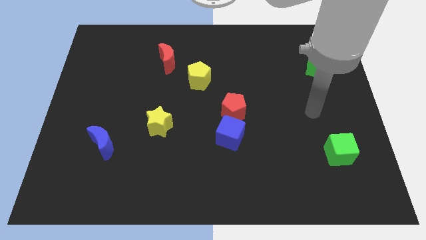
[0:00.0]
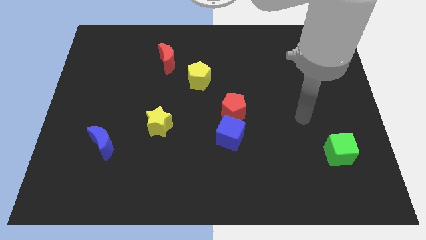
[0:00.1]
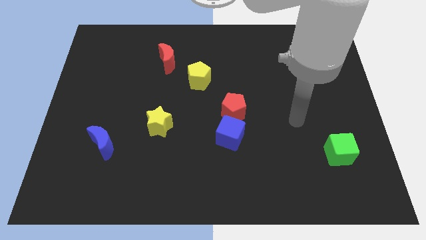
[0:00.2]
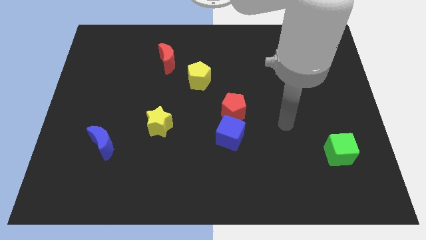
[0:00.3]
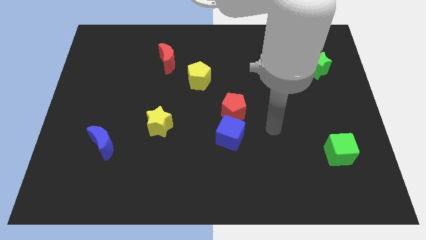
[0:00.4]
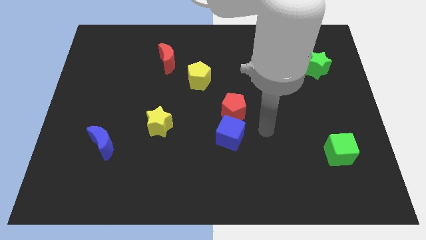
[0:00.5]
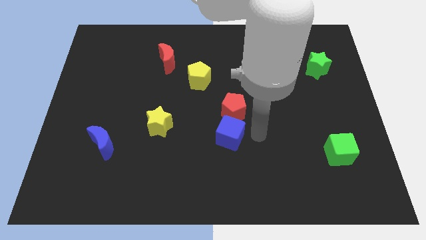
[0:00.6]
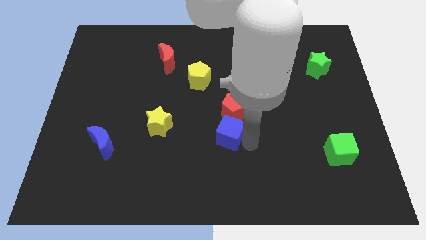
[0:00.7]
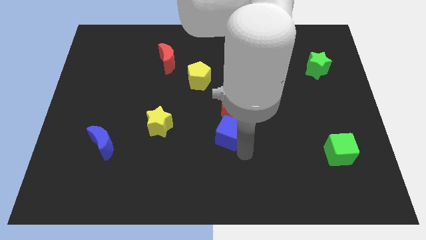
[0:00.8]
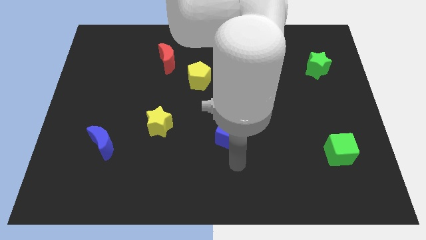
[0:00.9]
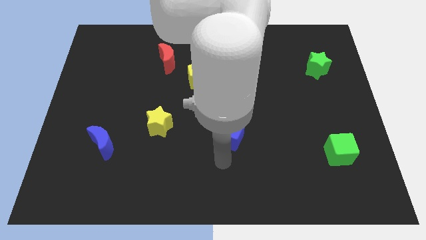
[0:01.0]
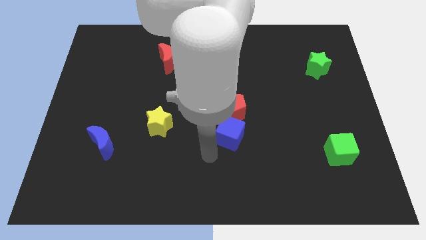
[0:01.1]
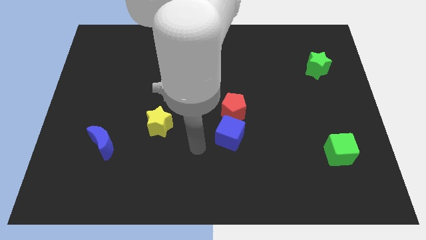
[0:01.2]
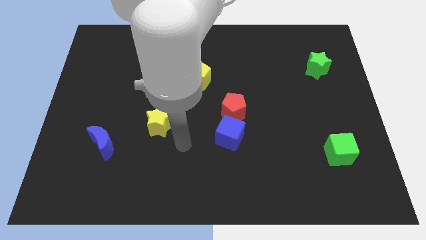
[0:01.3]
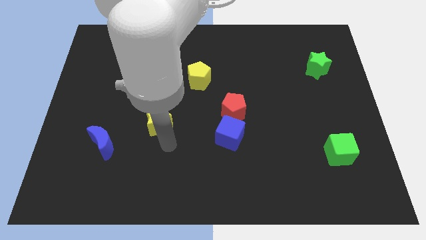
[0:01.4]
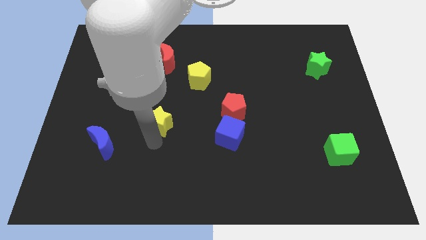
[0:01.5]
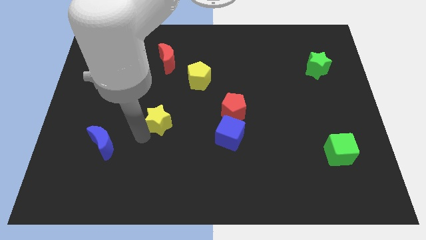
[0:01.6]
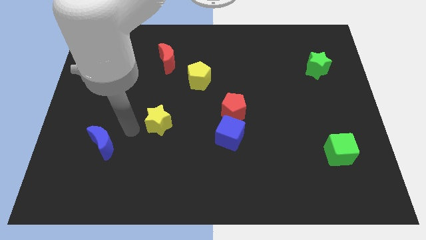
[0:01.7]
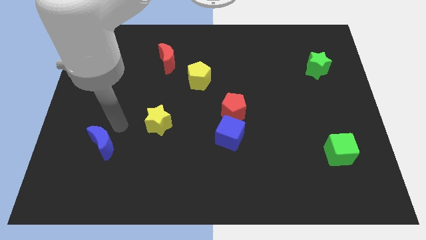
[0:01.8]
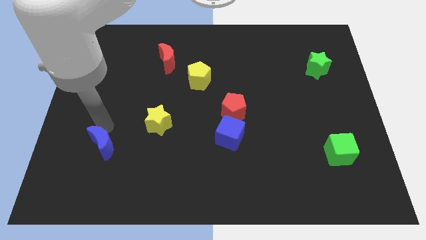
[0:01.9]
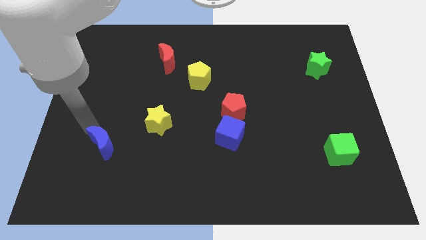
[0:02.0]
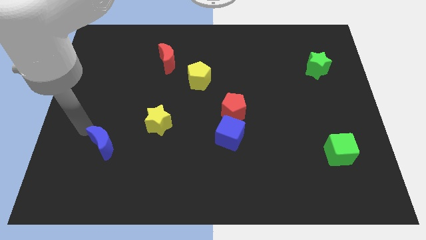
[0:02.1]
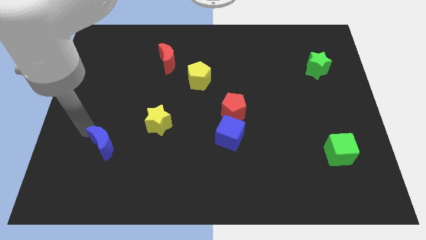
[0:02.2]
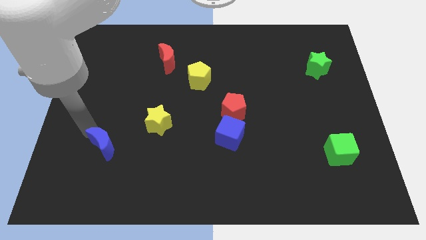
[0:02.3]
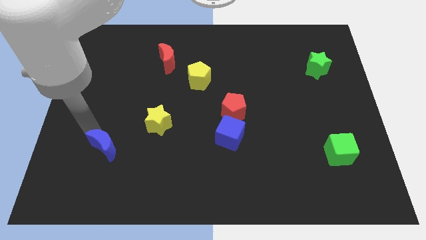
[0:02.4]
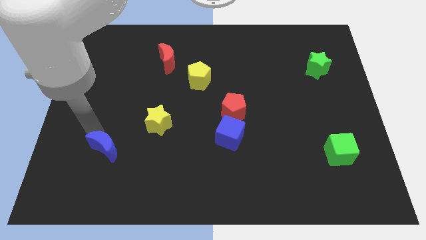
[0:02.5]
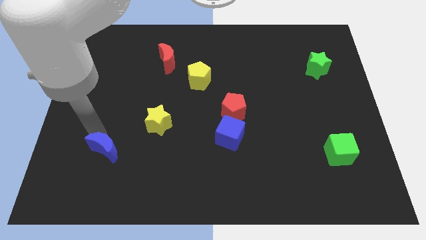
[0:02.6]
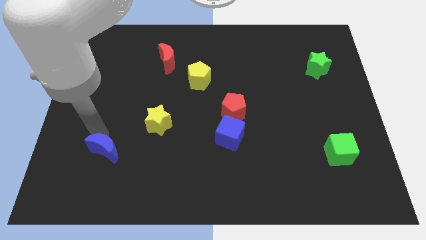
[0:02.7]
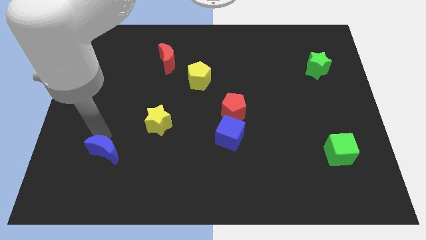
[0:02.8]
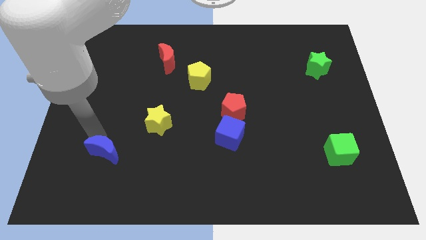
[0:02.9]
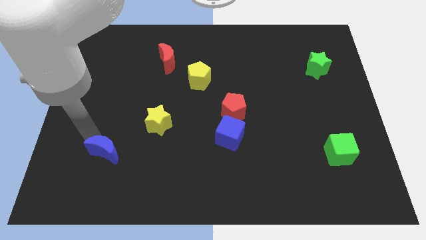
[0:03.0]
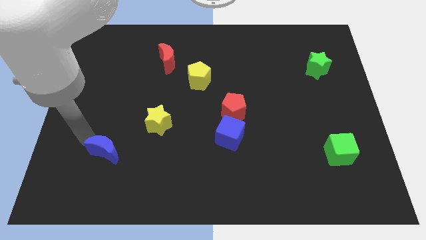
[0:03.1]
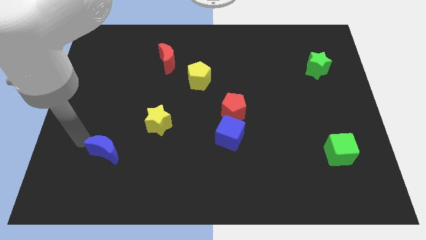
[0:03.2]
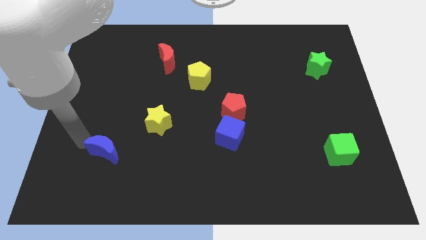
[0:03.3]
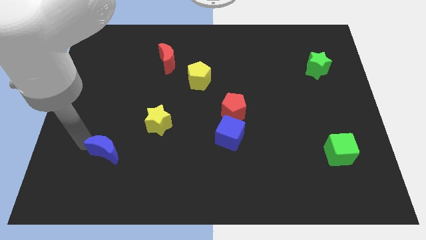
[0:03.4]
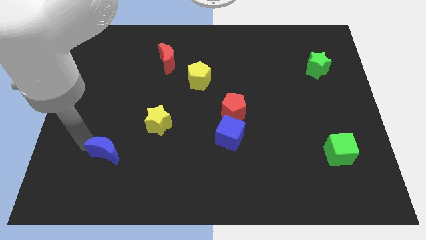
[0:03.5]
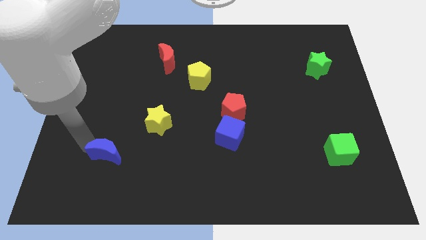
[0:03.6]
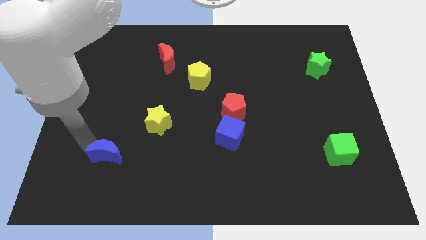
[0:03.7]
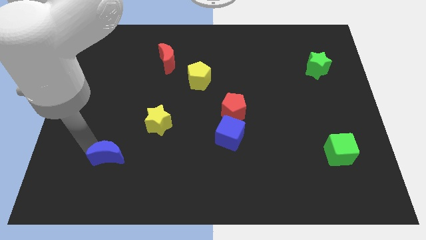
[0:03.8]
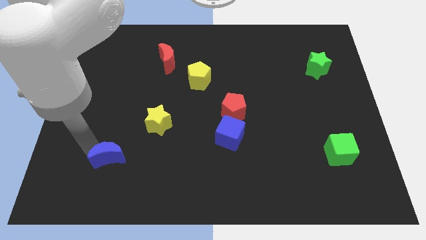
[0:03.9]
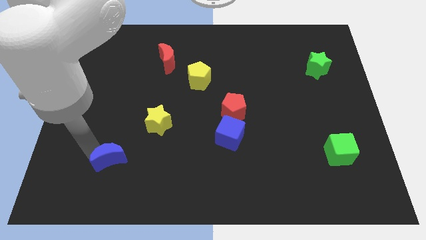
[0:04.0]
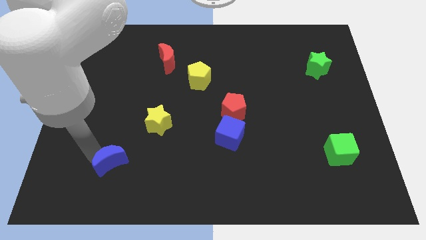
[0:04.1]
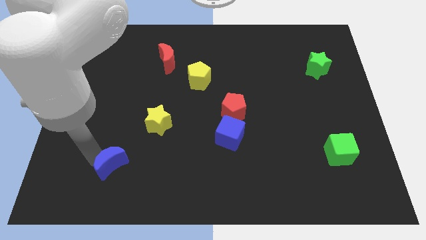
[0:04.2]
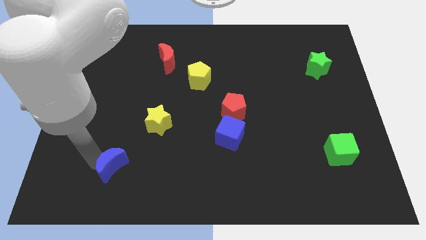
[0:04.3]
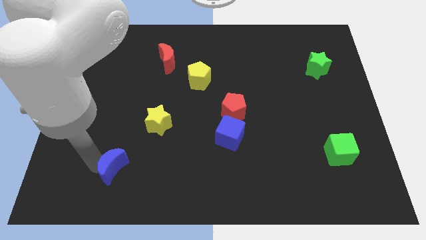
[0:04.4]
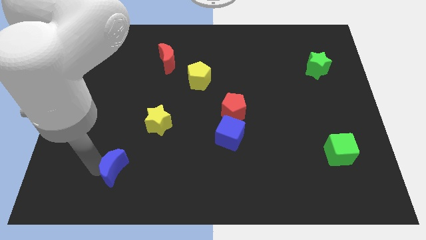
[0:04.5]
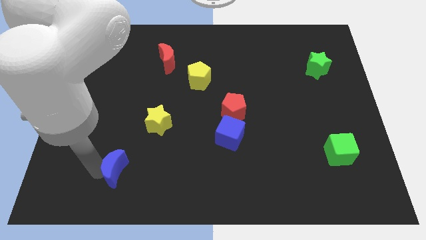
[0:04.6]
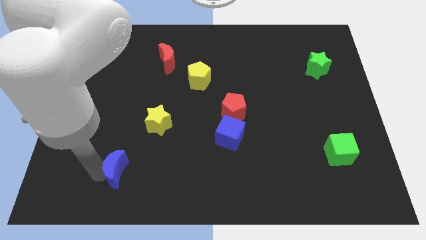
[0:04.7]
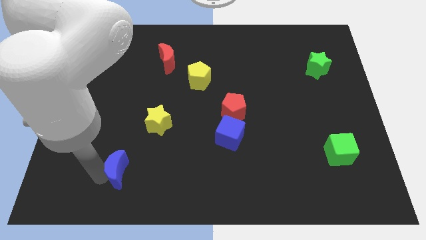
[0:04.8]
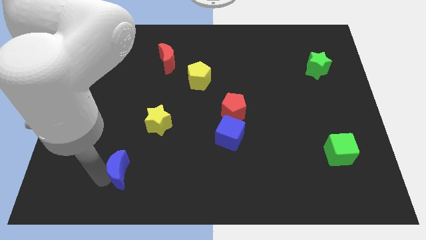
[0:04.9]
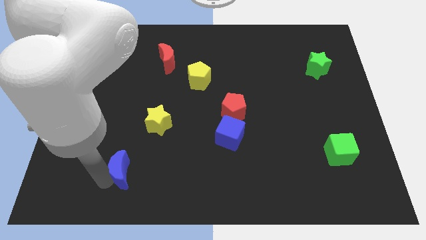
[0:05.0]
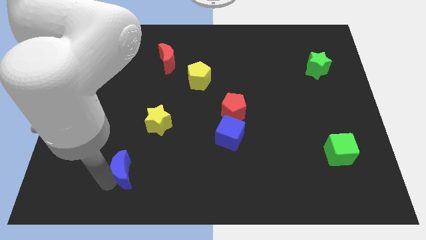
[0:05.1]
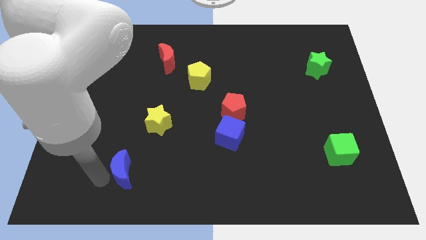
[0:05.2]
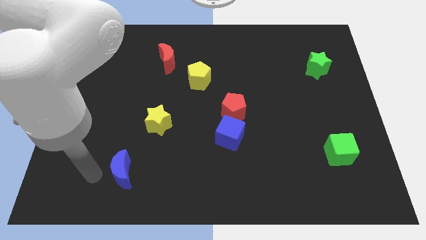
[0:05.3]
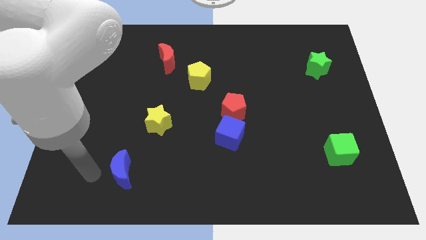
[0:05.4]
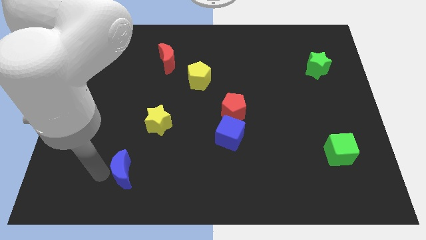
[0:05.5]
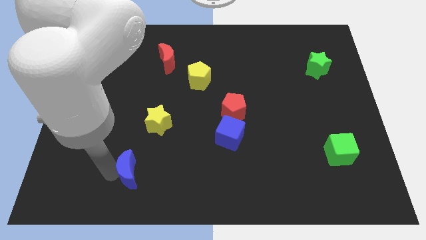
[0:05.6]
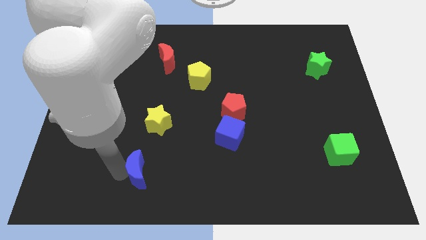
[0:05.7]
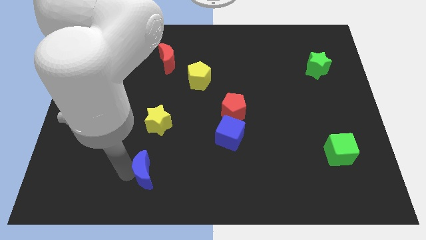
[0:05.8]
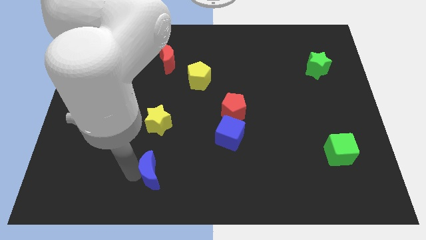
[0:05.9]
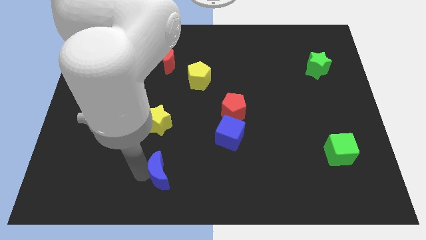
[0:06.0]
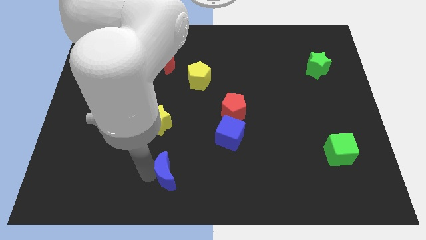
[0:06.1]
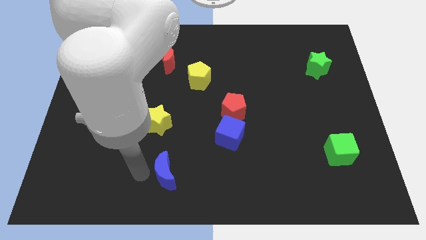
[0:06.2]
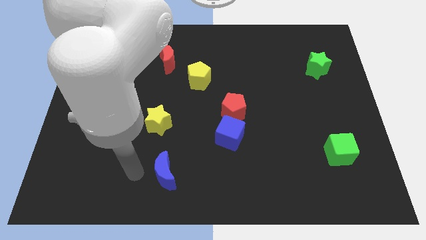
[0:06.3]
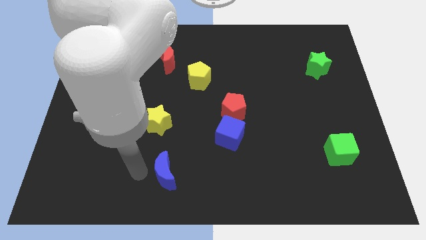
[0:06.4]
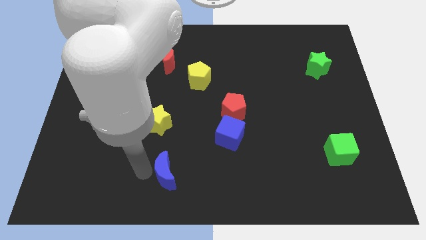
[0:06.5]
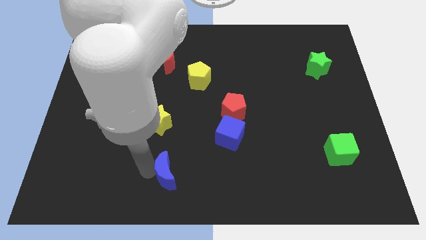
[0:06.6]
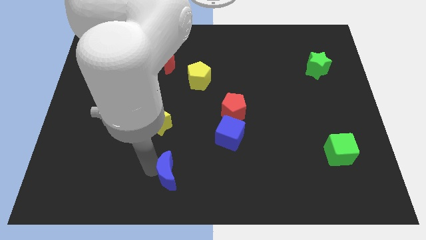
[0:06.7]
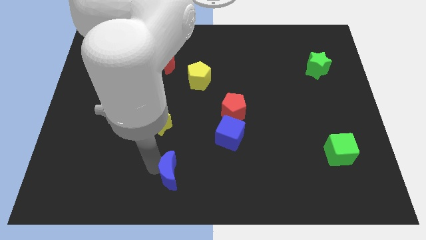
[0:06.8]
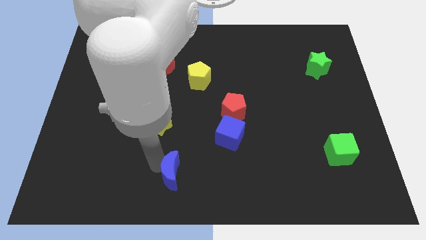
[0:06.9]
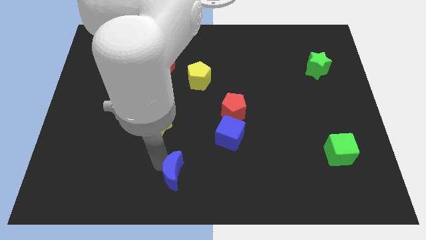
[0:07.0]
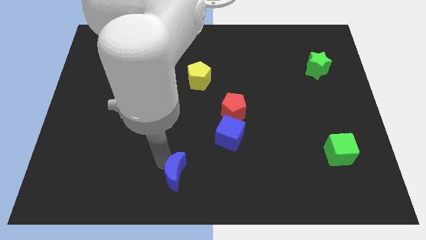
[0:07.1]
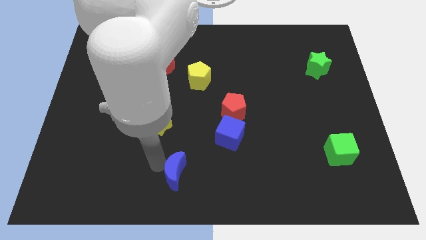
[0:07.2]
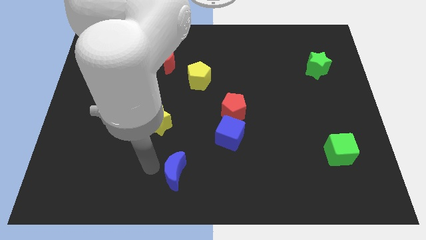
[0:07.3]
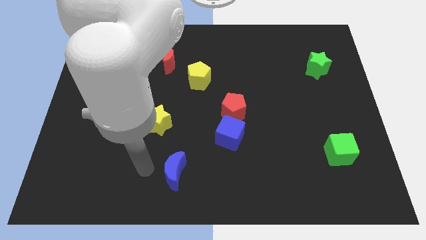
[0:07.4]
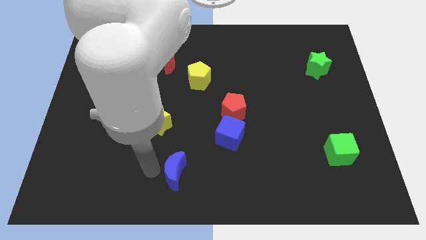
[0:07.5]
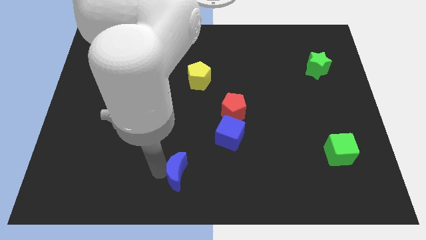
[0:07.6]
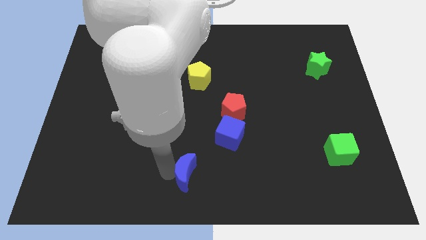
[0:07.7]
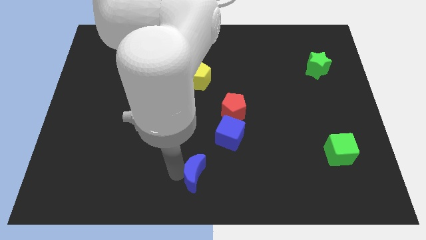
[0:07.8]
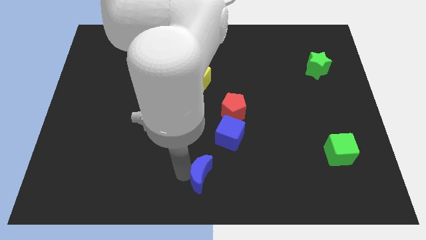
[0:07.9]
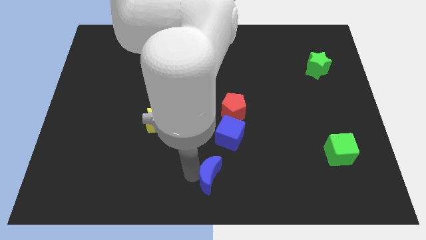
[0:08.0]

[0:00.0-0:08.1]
put the blue moon to the bottom of the blue cube
